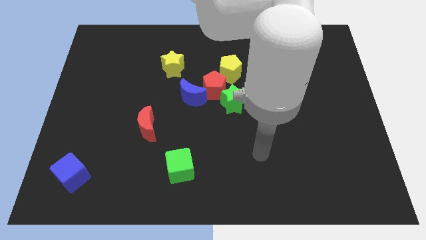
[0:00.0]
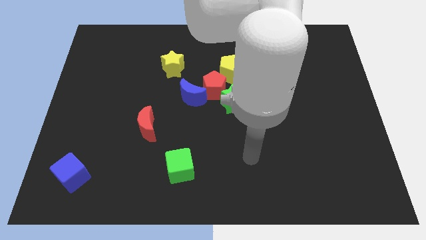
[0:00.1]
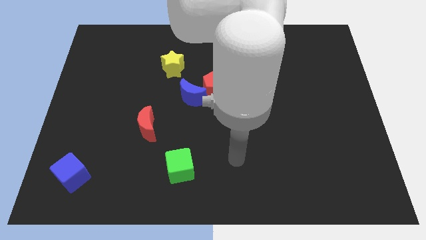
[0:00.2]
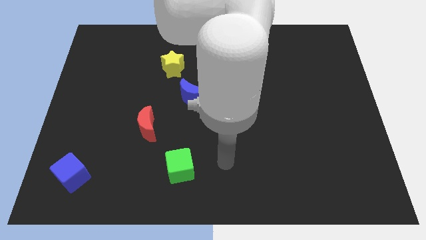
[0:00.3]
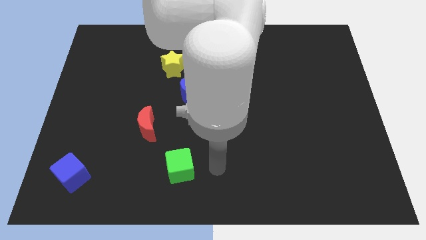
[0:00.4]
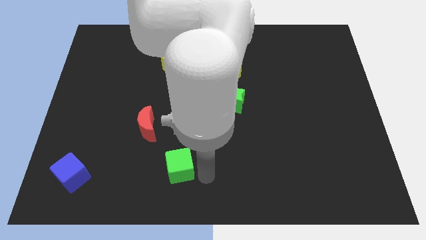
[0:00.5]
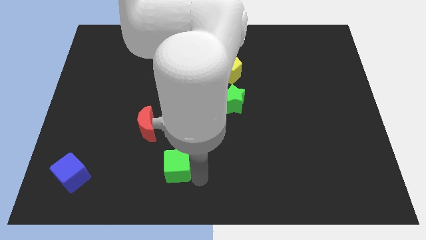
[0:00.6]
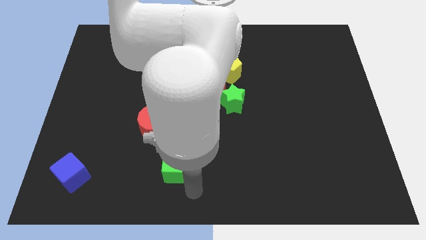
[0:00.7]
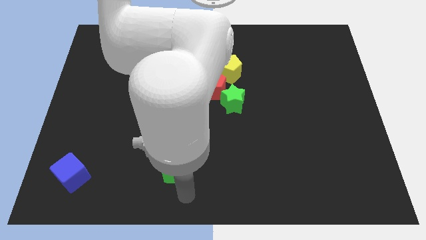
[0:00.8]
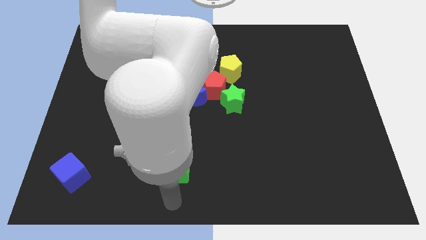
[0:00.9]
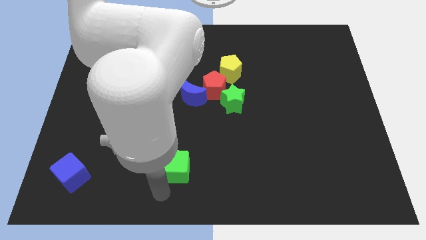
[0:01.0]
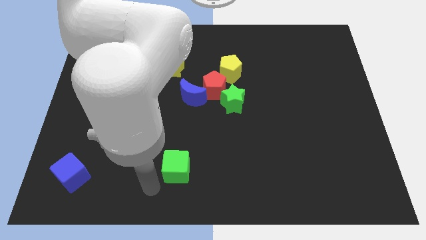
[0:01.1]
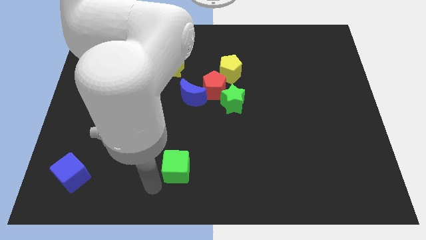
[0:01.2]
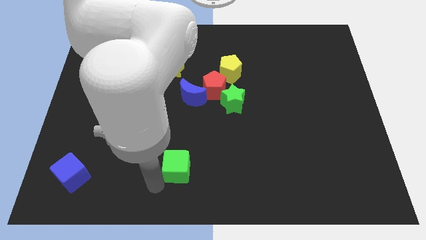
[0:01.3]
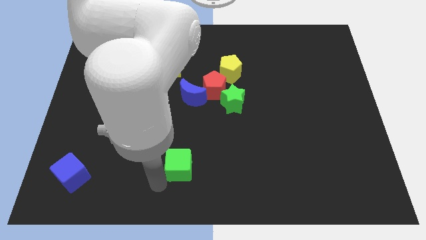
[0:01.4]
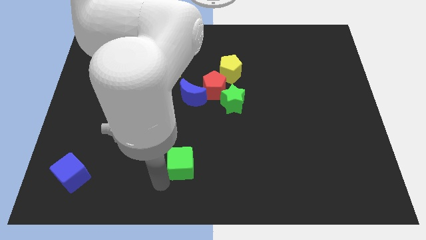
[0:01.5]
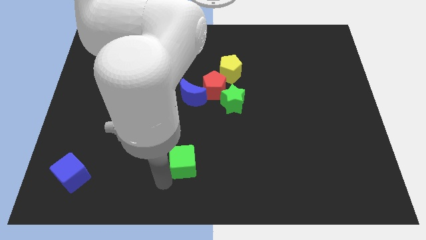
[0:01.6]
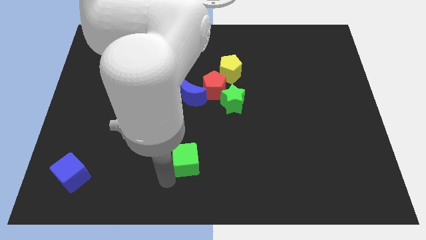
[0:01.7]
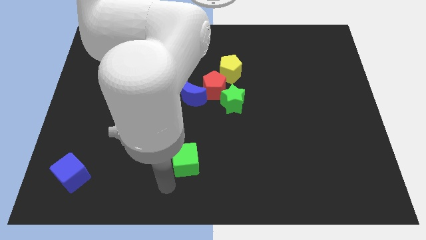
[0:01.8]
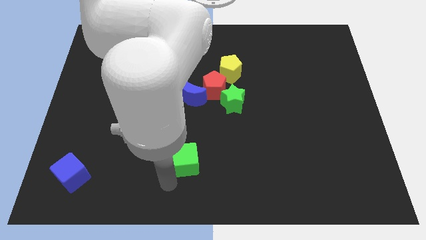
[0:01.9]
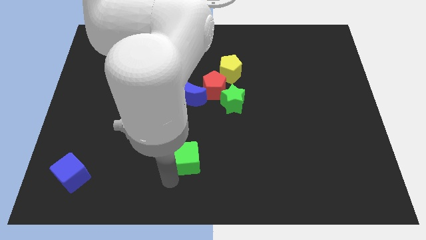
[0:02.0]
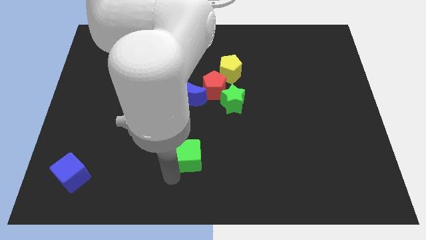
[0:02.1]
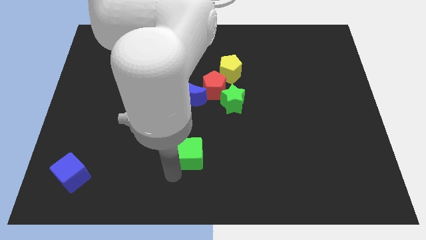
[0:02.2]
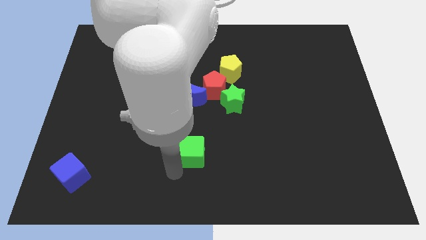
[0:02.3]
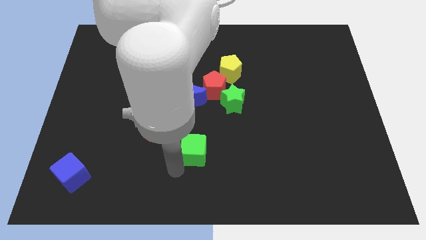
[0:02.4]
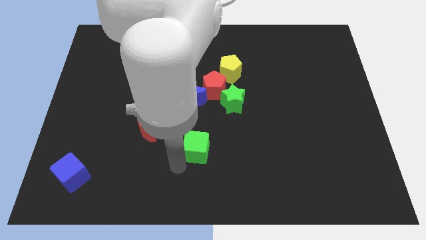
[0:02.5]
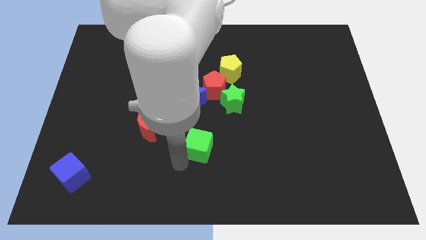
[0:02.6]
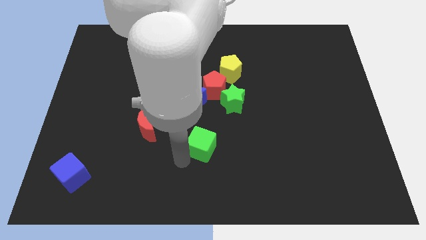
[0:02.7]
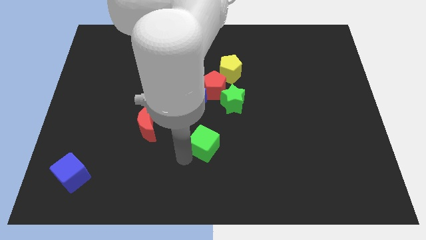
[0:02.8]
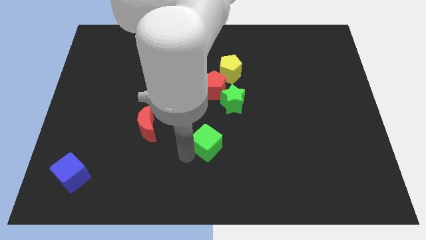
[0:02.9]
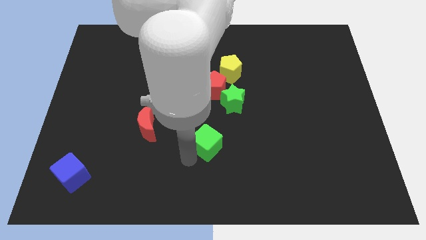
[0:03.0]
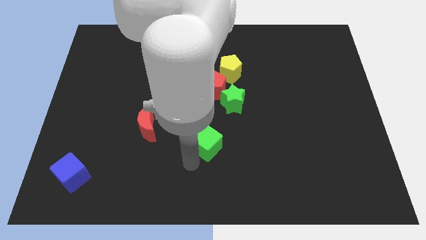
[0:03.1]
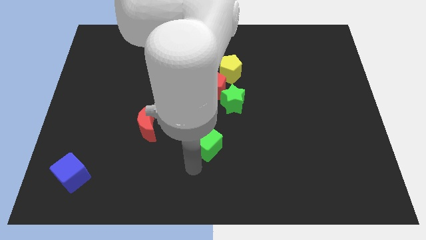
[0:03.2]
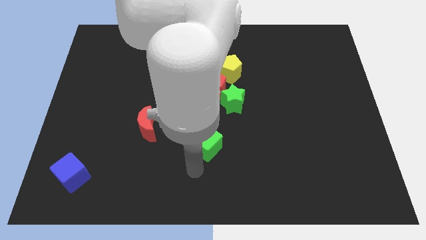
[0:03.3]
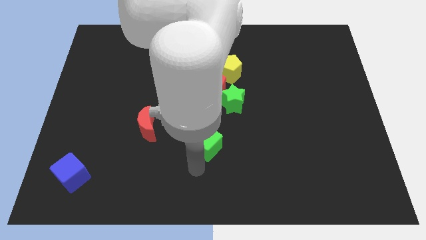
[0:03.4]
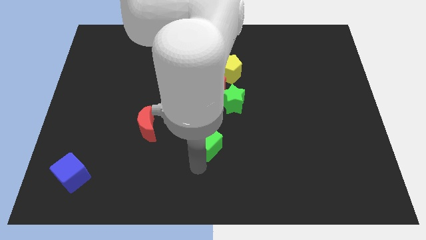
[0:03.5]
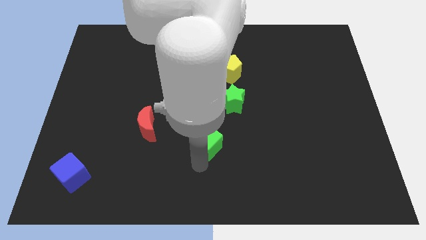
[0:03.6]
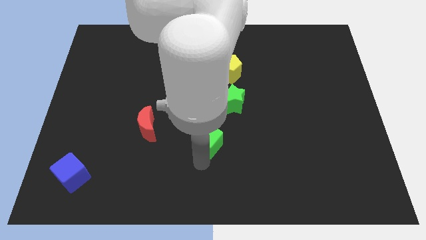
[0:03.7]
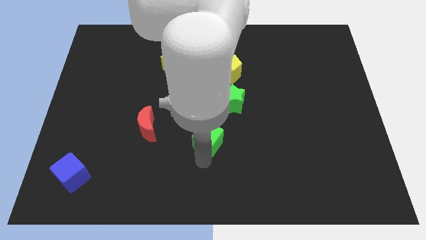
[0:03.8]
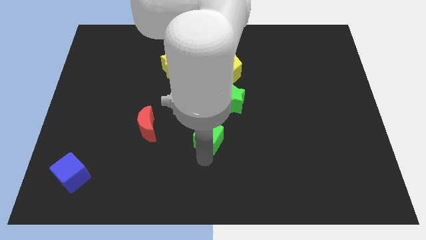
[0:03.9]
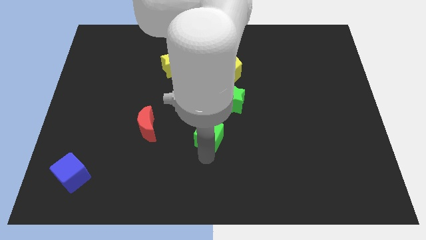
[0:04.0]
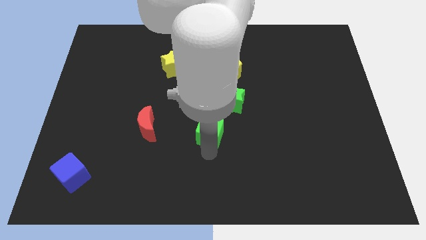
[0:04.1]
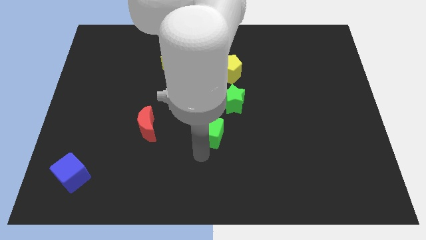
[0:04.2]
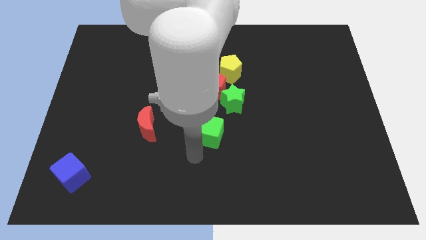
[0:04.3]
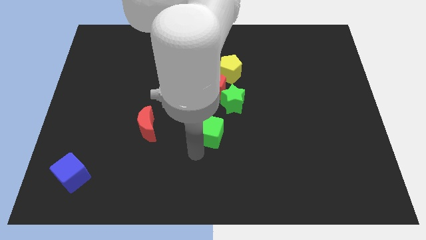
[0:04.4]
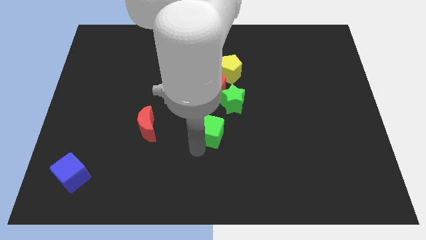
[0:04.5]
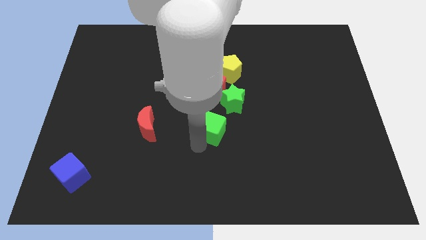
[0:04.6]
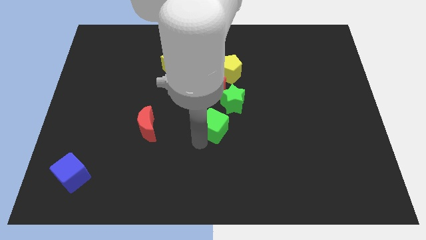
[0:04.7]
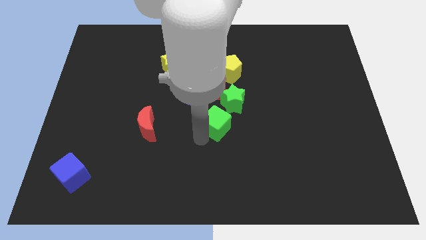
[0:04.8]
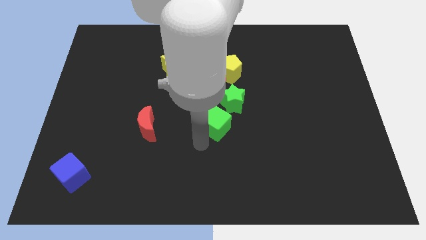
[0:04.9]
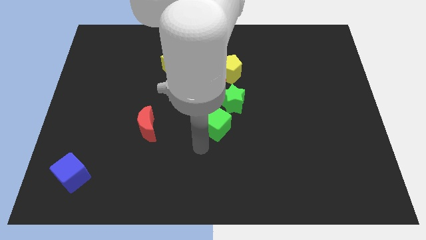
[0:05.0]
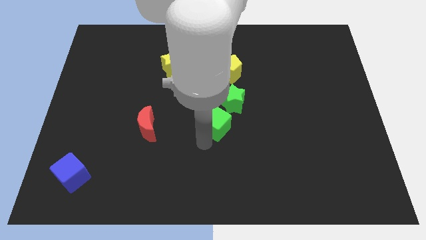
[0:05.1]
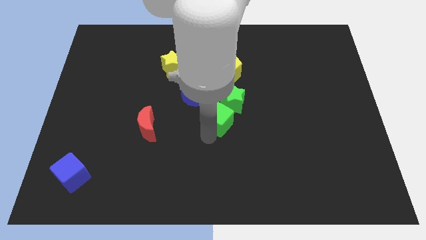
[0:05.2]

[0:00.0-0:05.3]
move the green cube towards the green star

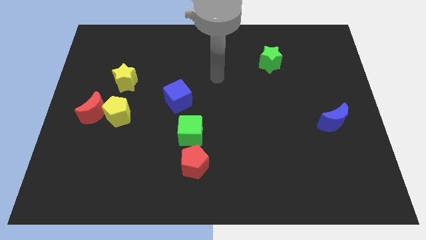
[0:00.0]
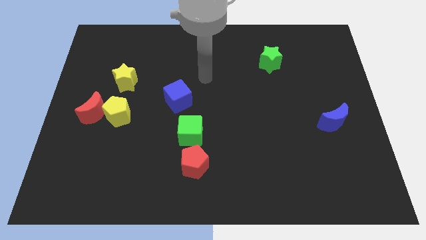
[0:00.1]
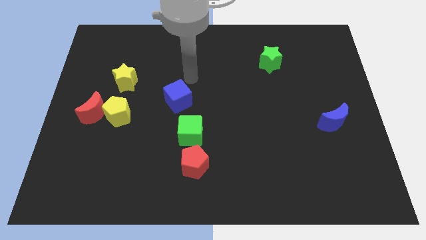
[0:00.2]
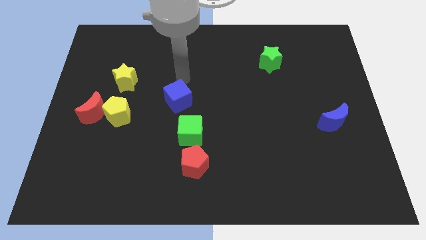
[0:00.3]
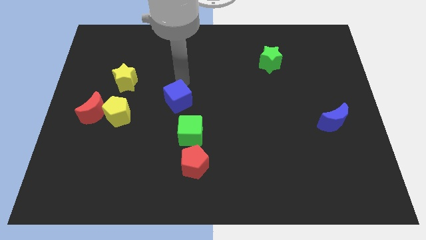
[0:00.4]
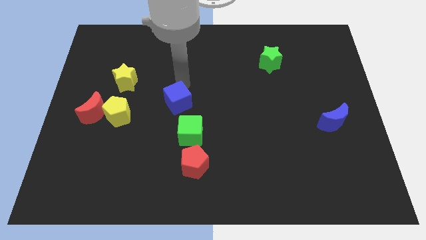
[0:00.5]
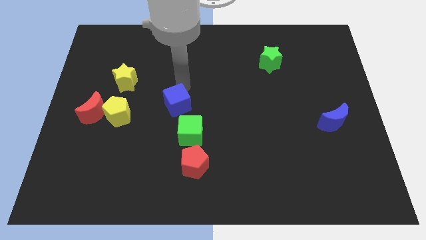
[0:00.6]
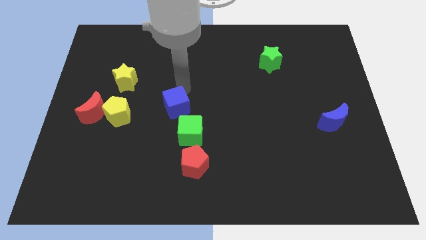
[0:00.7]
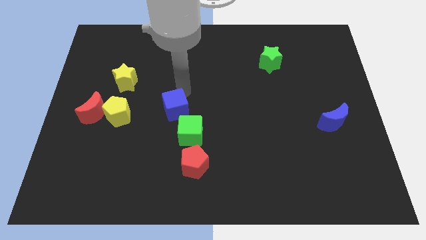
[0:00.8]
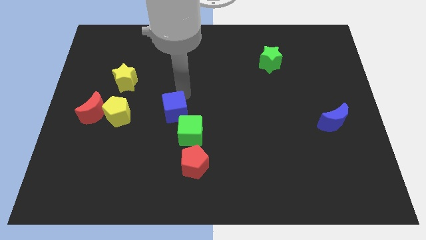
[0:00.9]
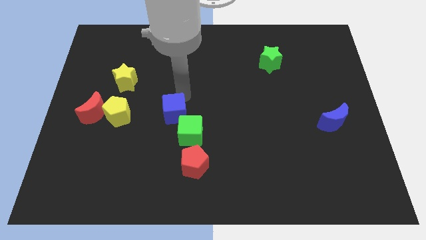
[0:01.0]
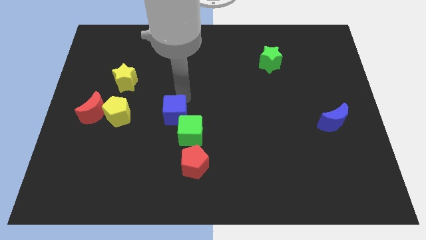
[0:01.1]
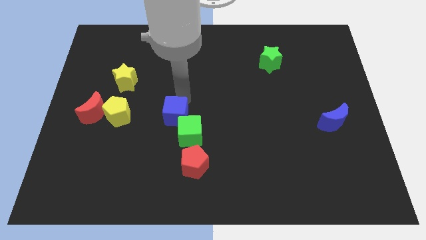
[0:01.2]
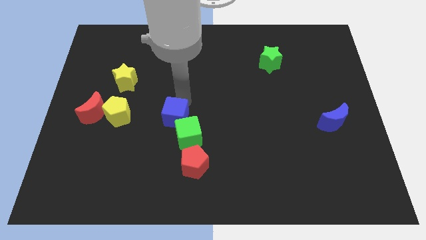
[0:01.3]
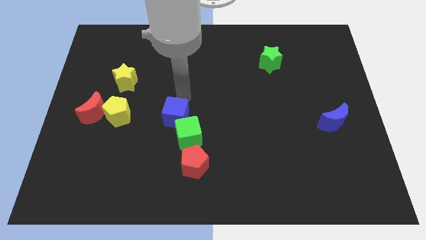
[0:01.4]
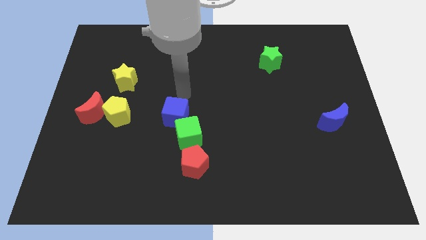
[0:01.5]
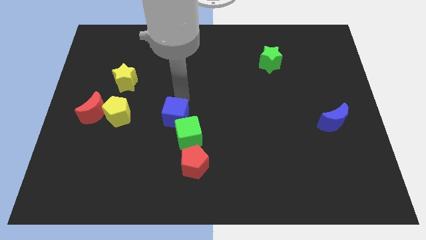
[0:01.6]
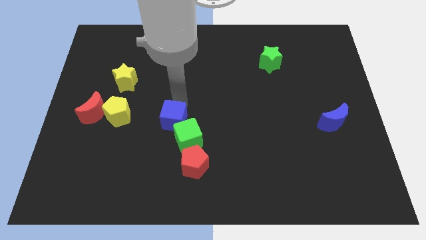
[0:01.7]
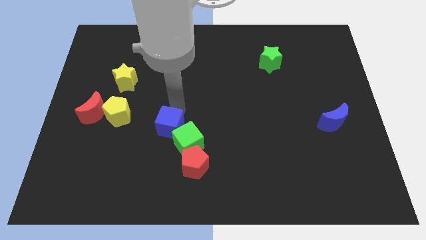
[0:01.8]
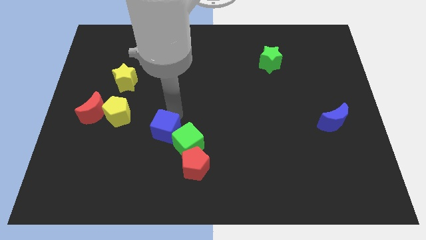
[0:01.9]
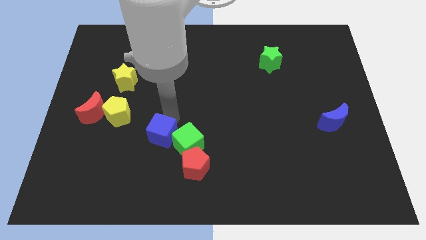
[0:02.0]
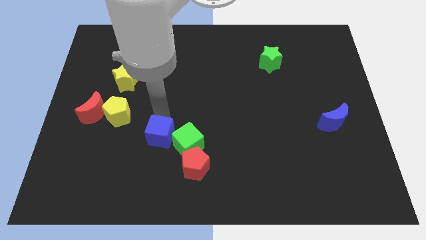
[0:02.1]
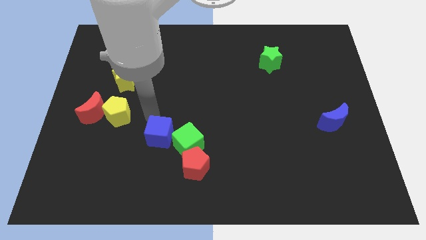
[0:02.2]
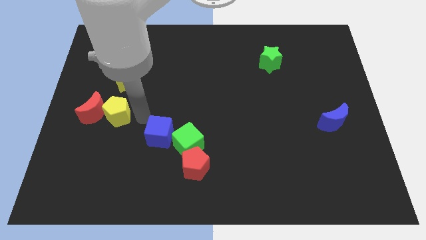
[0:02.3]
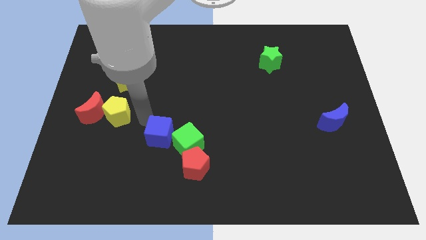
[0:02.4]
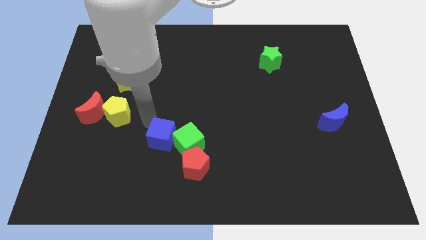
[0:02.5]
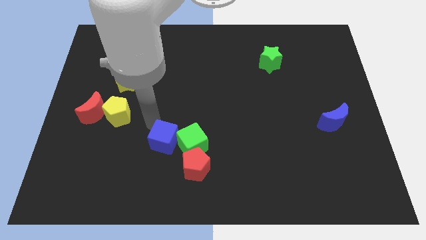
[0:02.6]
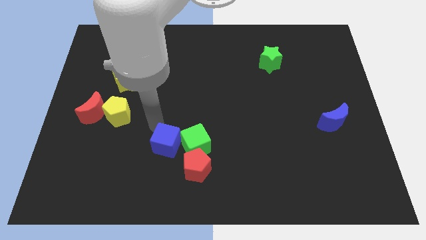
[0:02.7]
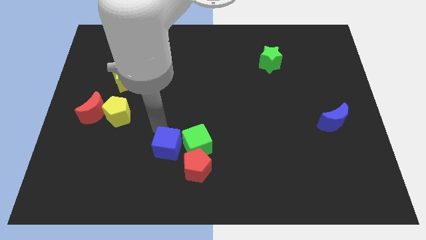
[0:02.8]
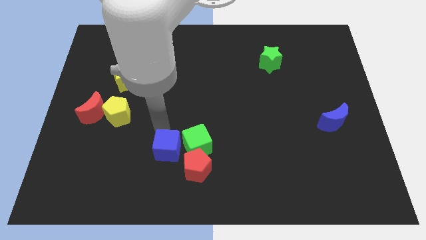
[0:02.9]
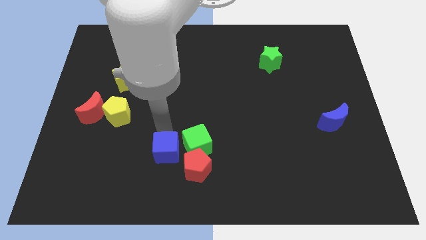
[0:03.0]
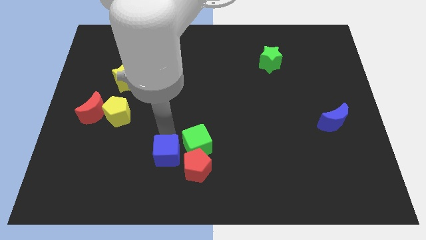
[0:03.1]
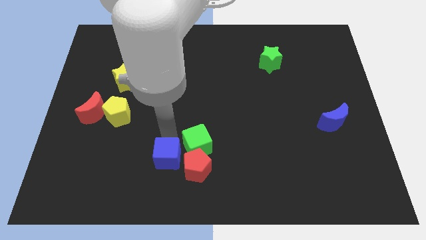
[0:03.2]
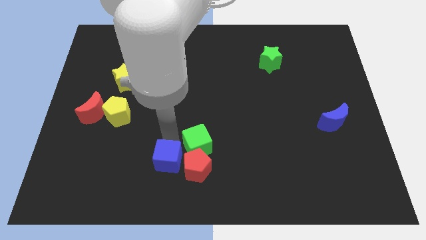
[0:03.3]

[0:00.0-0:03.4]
move the blue cube towards the red pentagon
